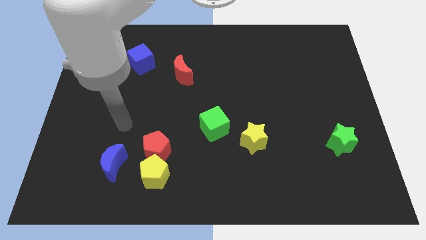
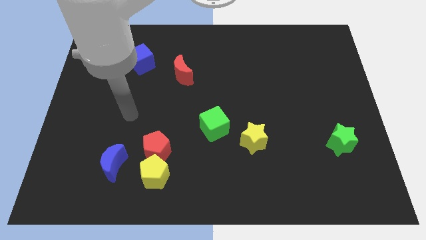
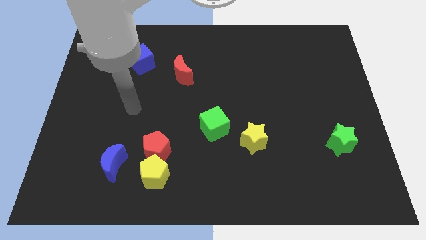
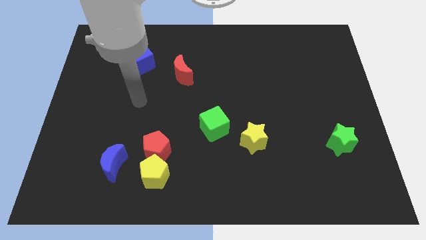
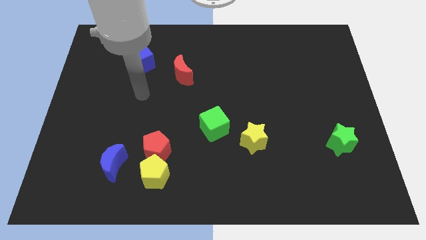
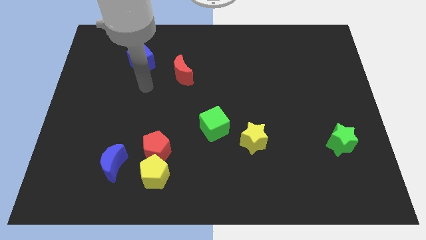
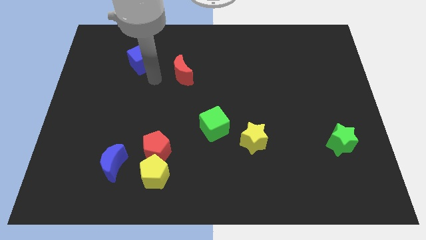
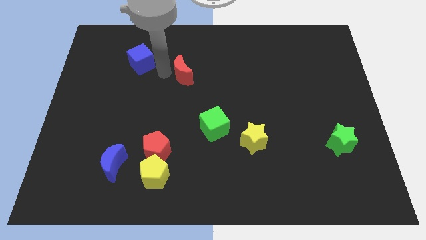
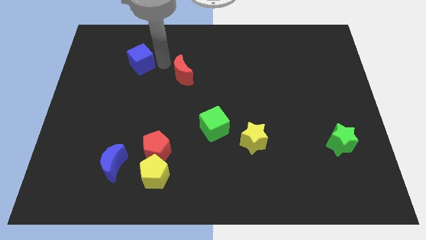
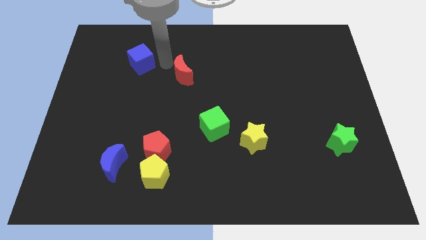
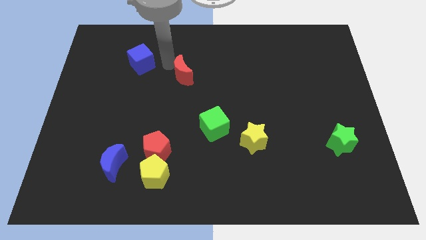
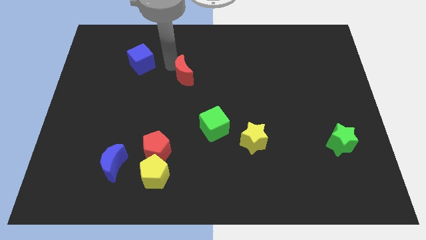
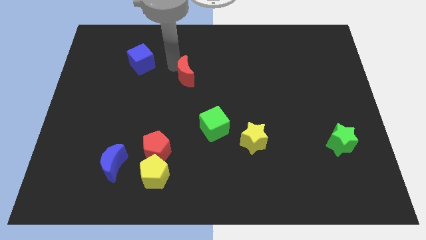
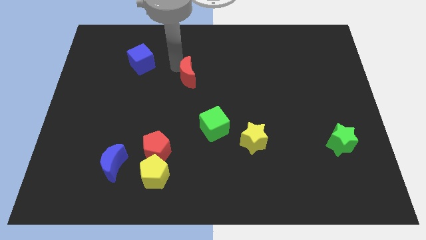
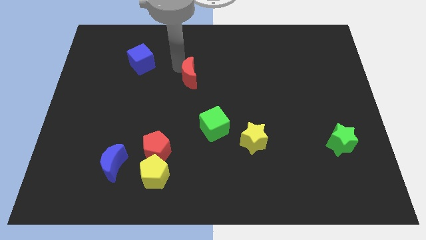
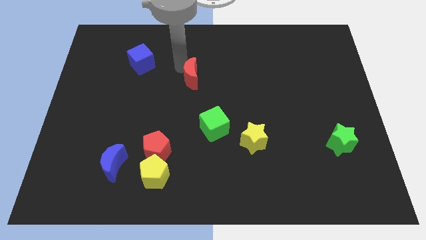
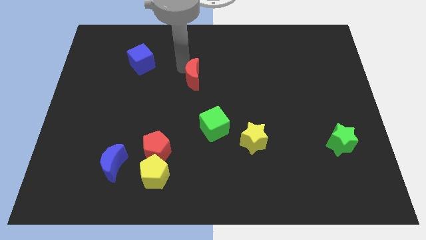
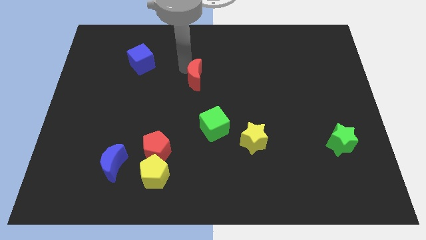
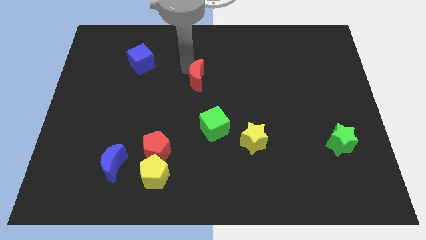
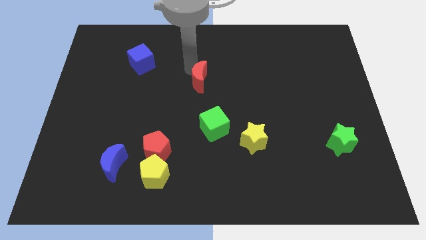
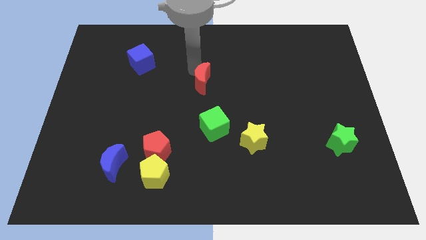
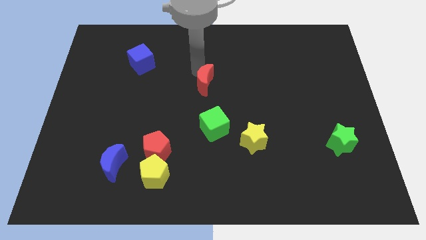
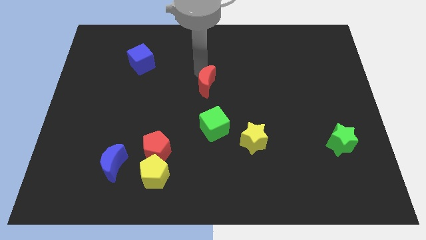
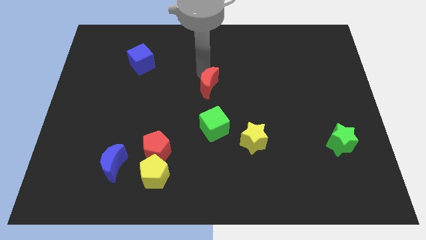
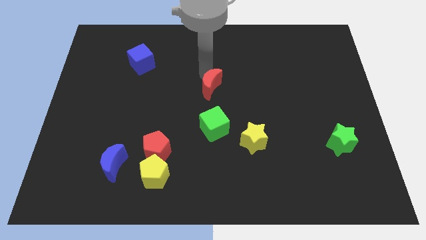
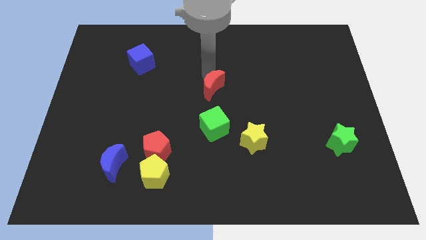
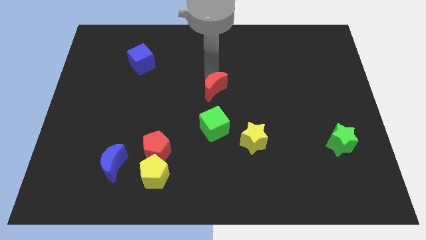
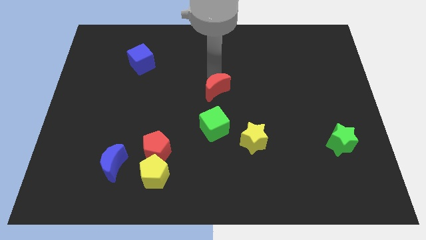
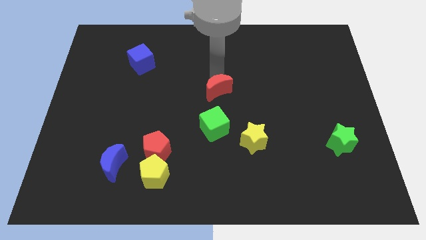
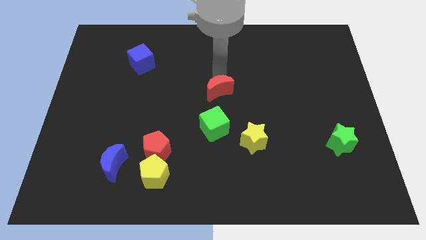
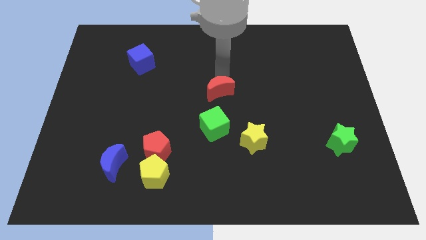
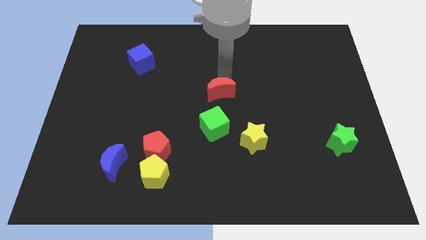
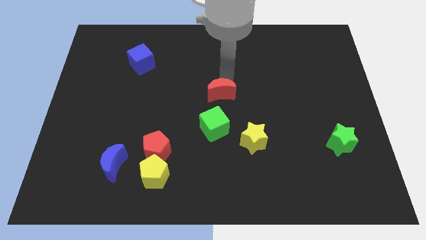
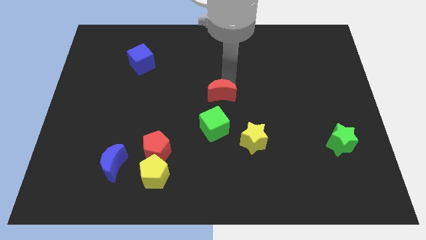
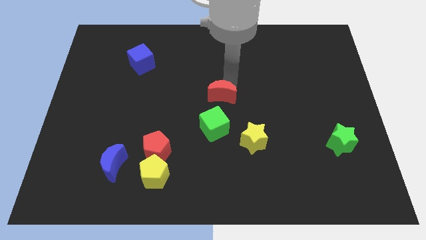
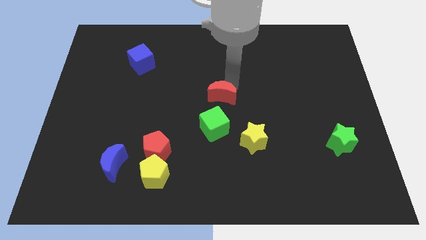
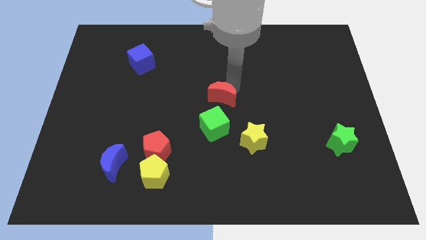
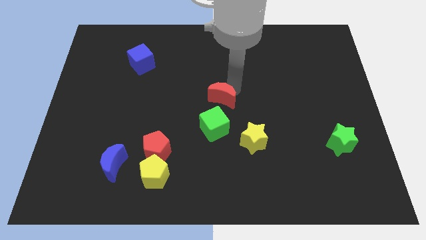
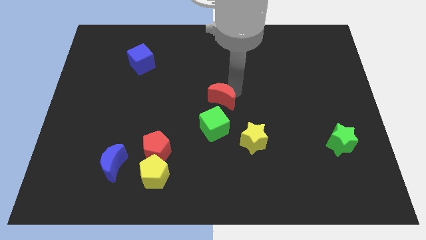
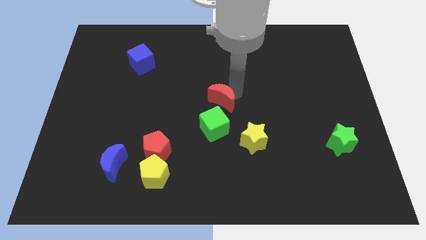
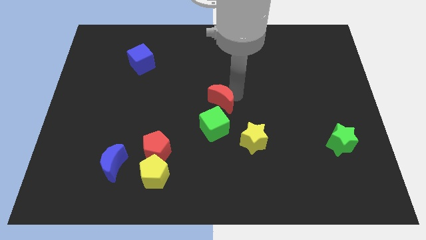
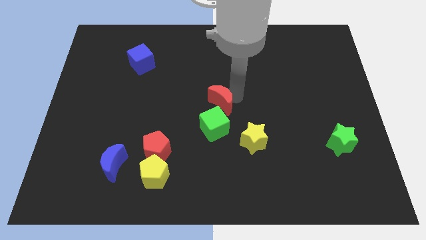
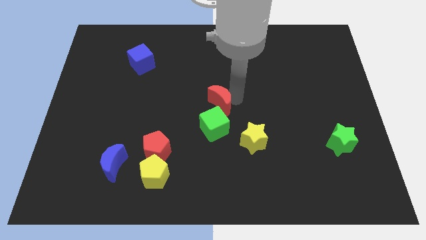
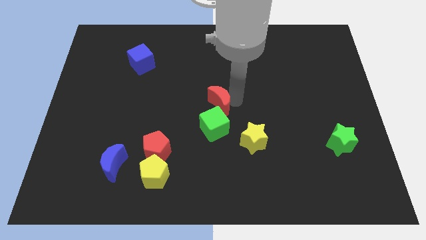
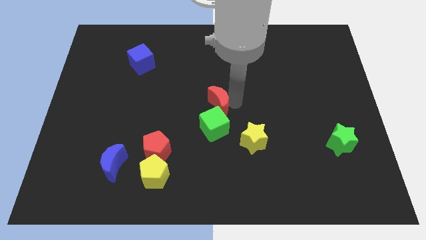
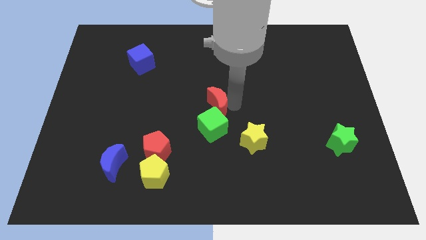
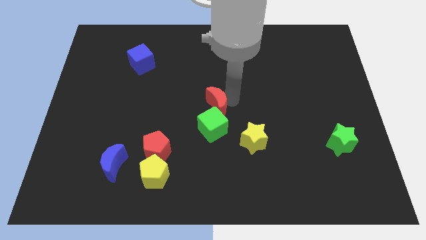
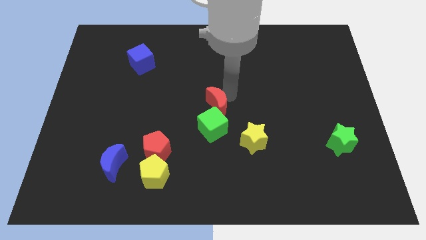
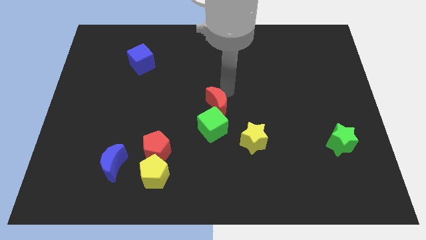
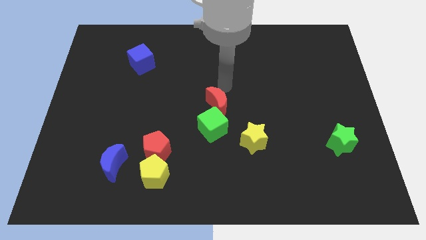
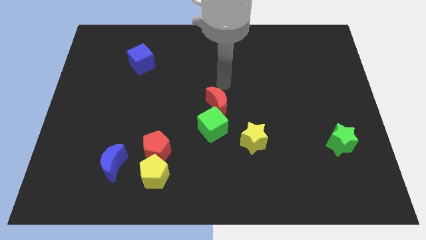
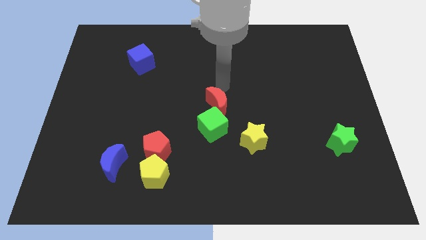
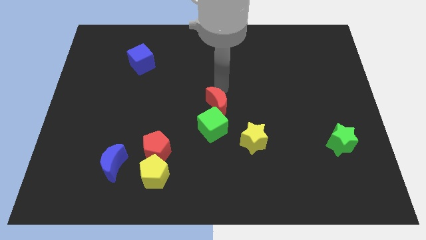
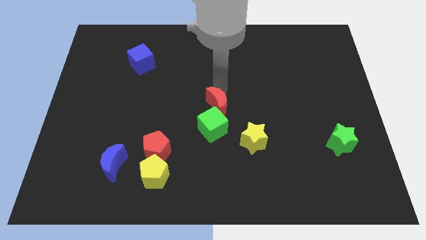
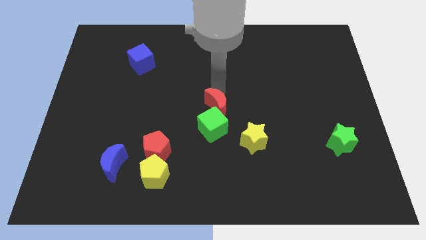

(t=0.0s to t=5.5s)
slide the red moon next to the green cube

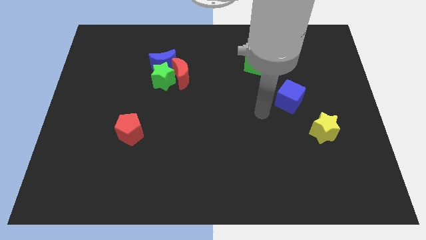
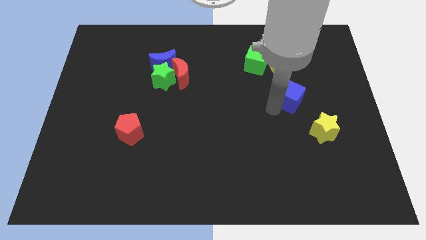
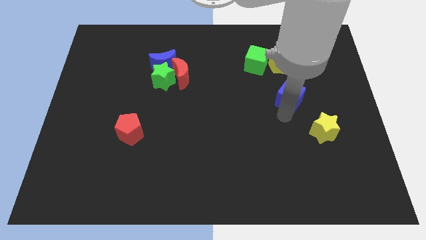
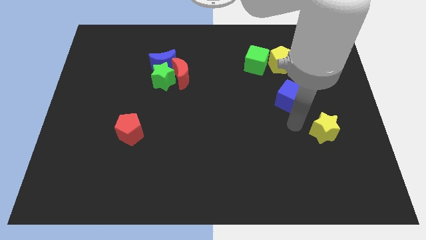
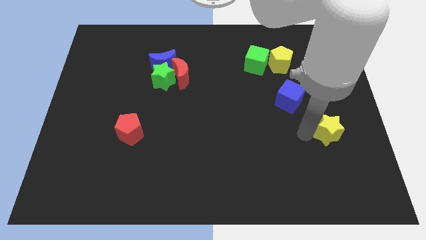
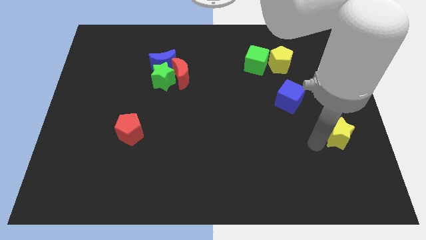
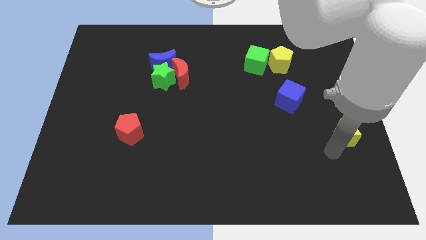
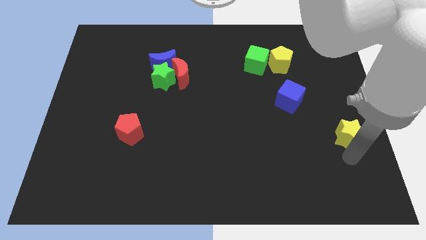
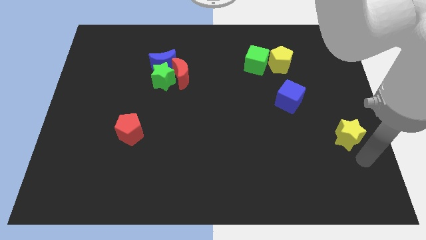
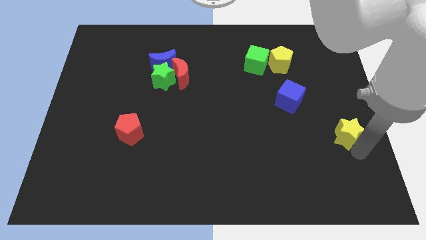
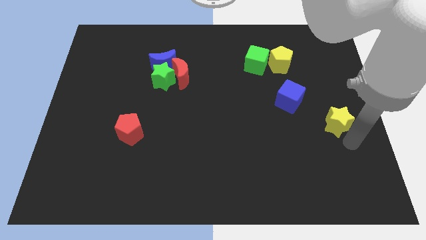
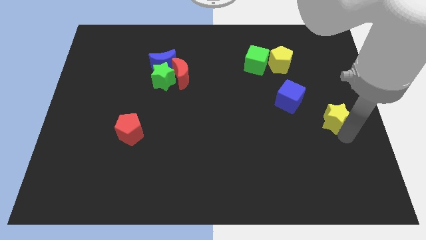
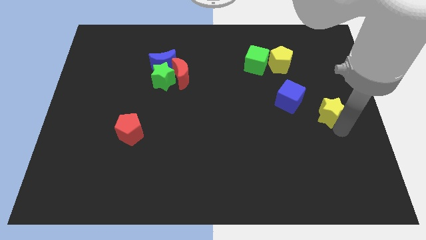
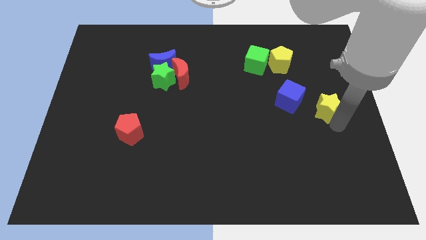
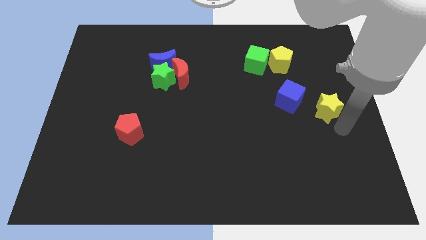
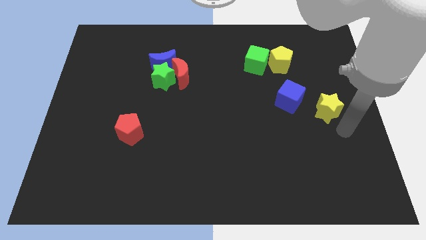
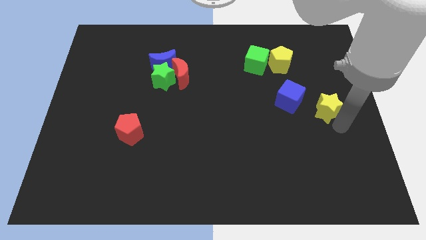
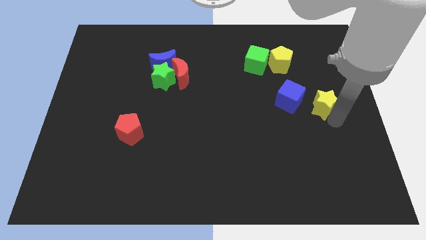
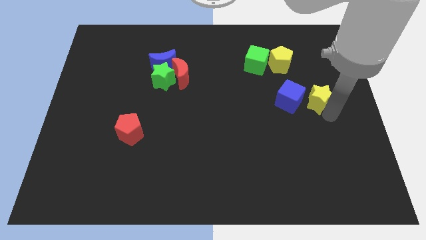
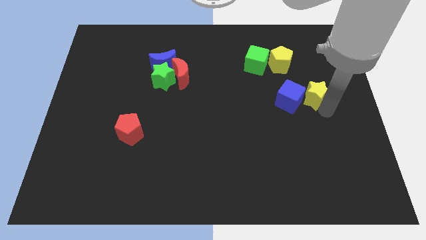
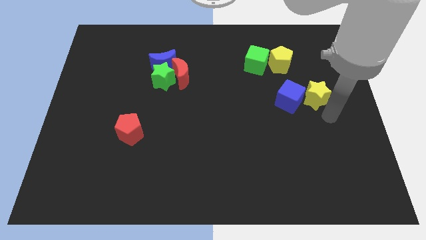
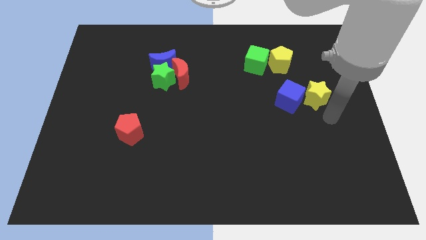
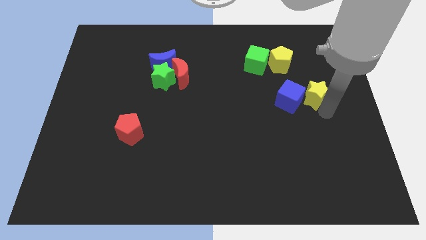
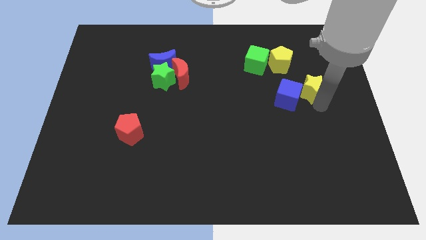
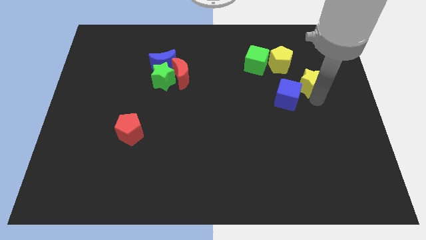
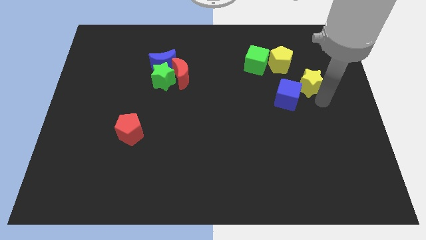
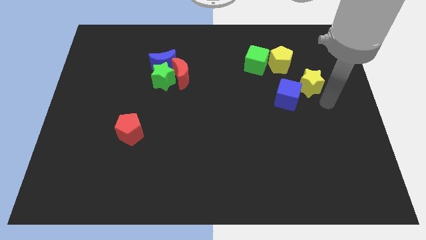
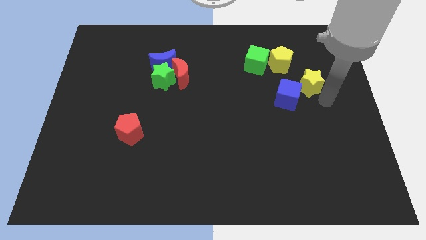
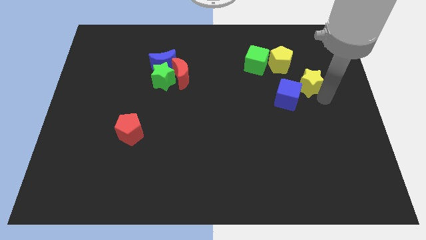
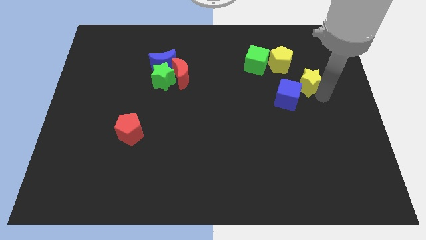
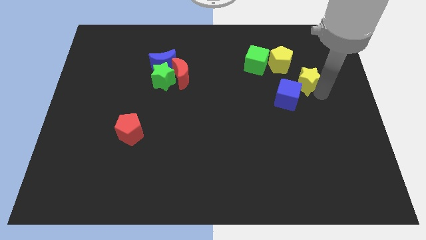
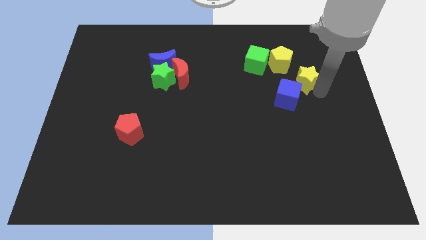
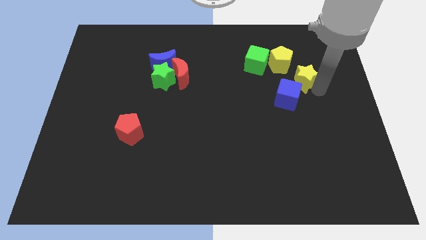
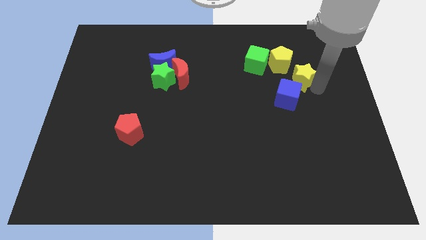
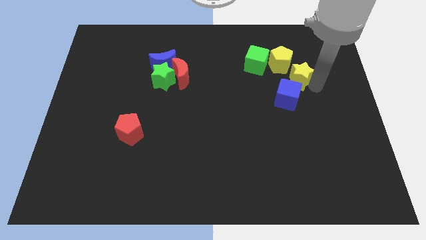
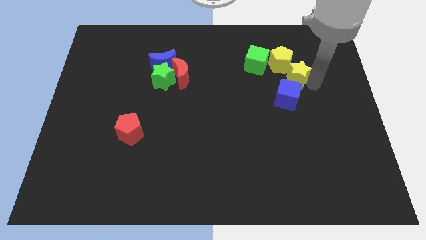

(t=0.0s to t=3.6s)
put the yellow star next to the yellow pentagon
